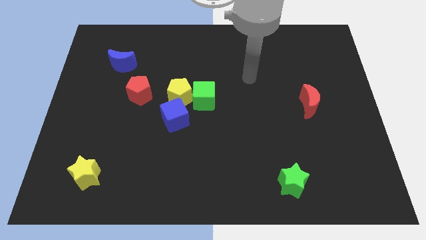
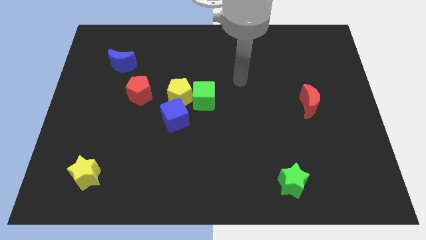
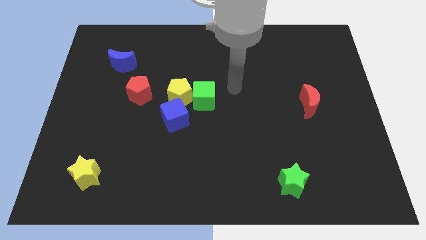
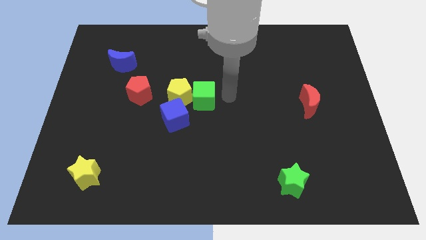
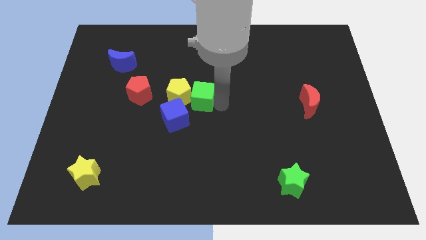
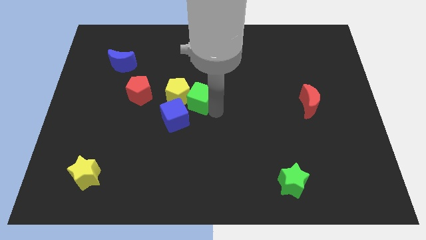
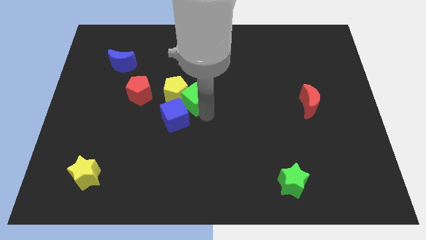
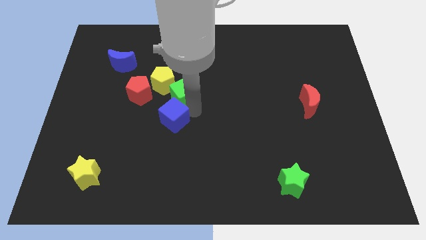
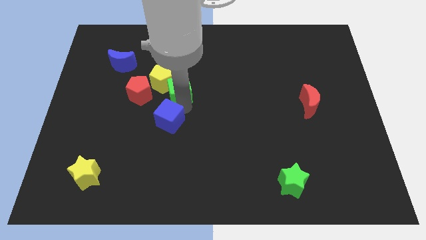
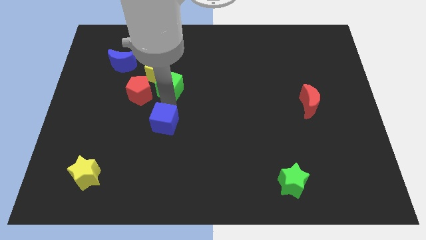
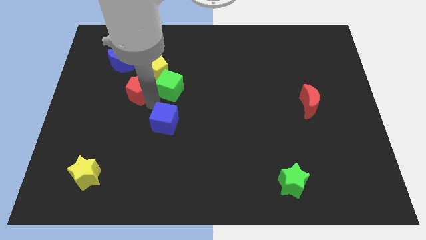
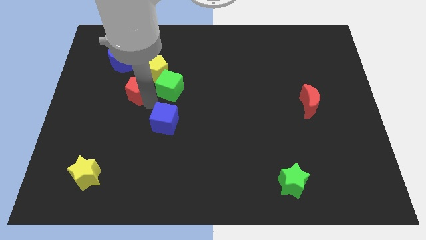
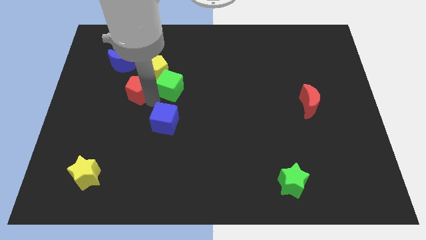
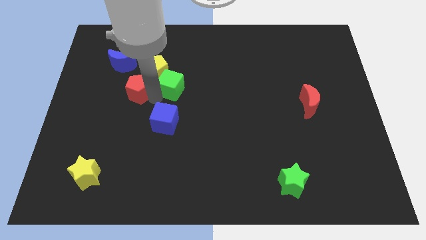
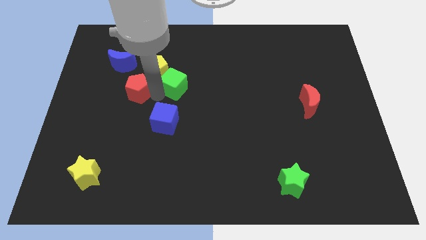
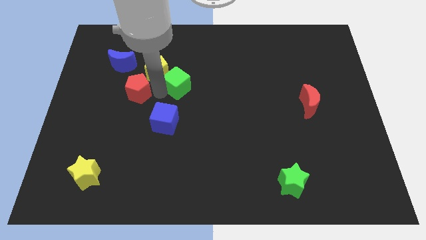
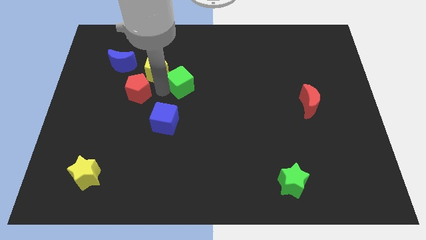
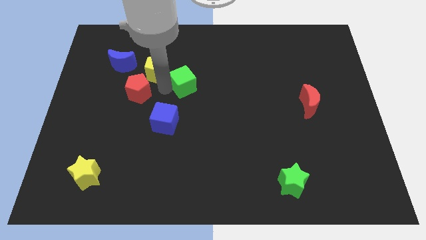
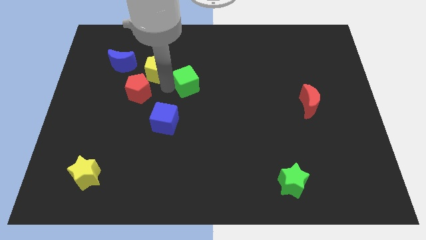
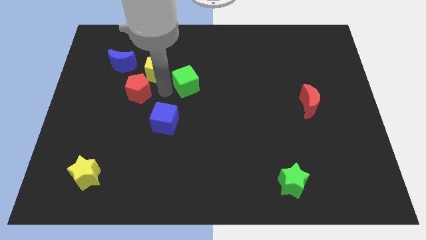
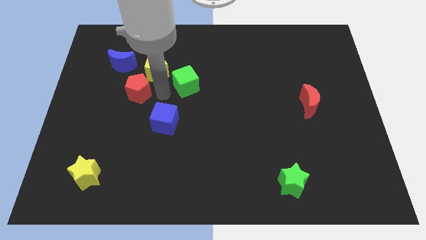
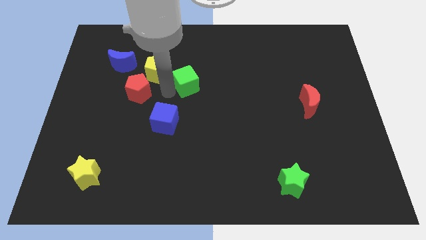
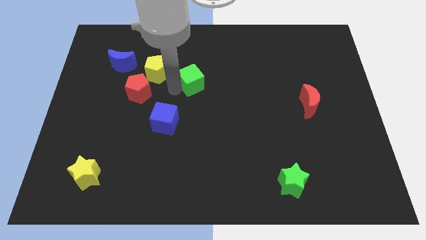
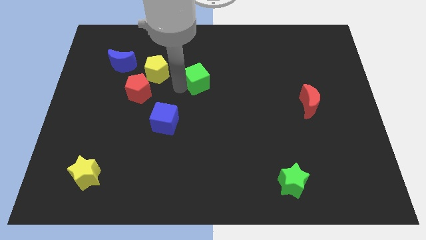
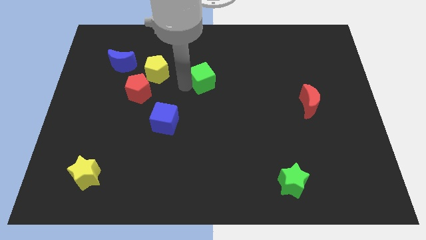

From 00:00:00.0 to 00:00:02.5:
move the green cube away from the yellow pentagon and blue cube

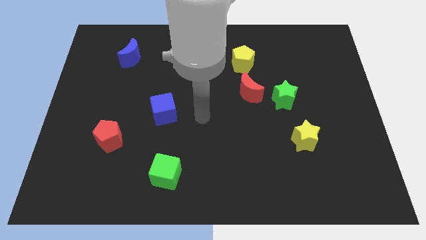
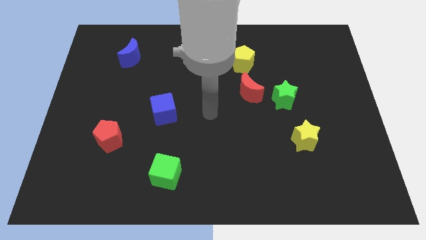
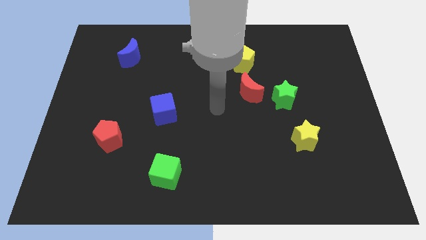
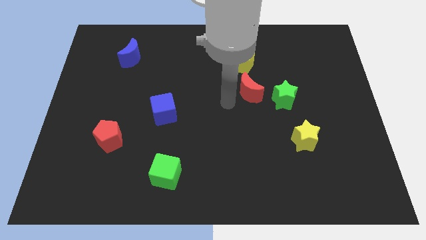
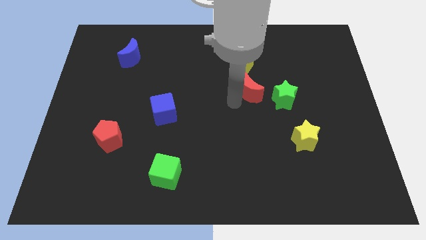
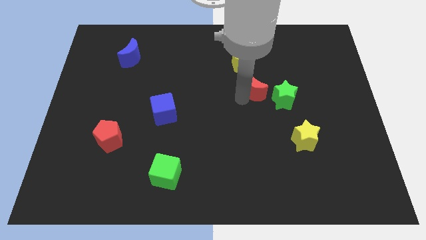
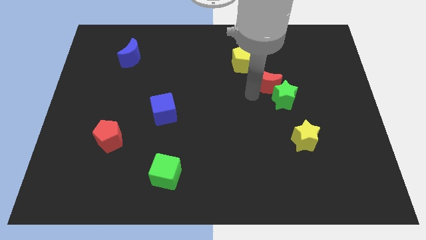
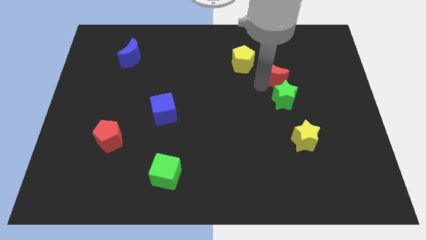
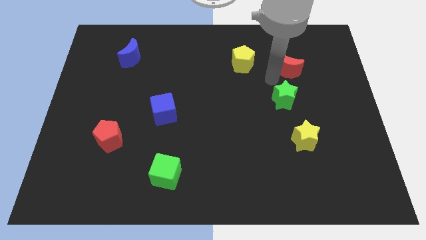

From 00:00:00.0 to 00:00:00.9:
move the green star away from the red moon

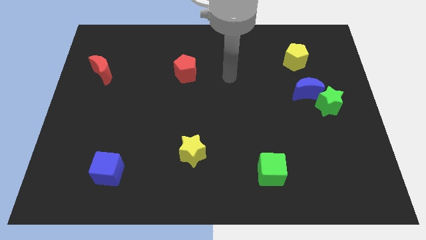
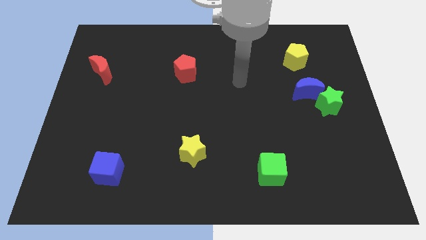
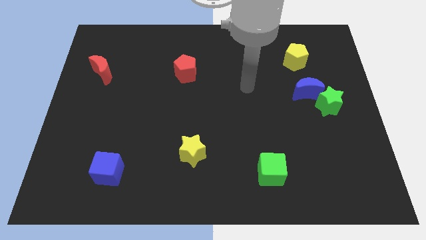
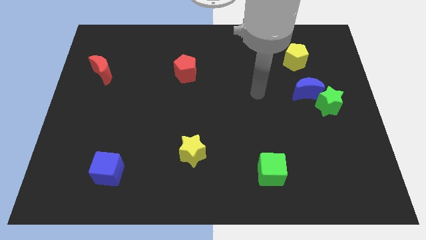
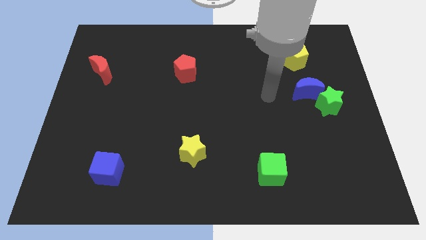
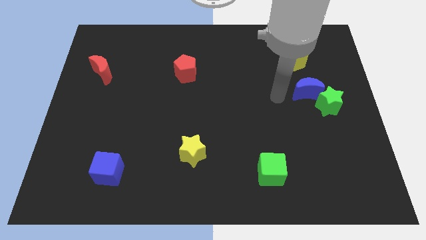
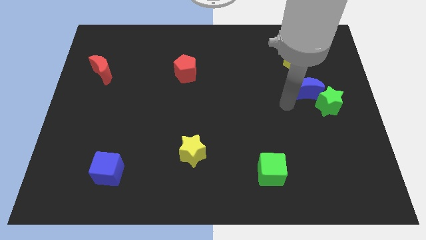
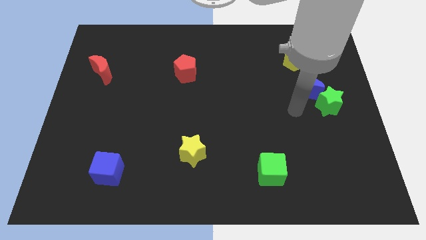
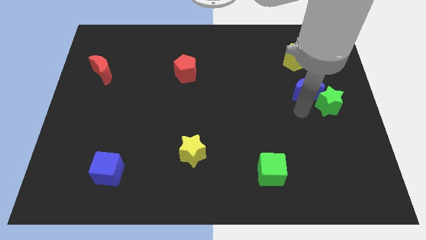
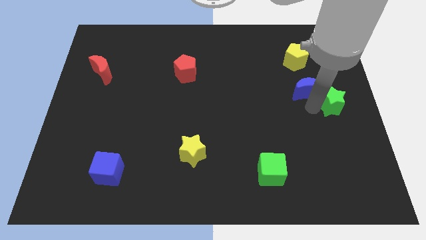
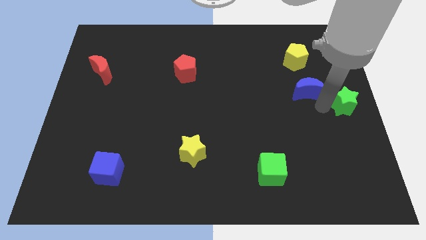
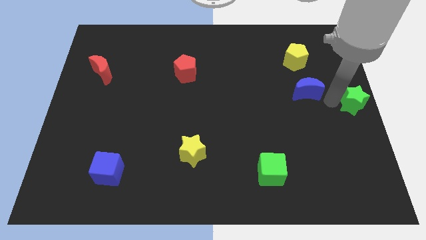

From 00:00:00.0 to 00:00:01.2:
separate the blue moon from the green star

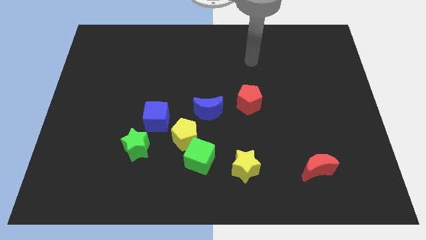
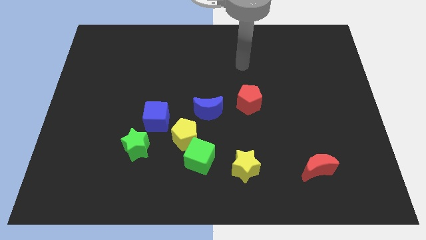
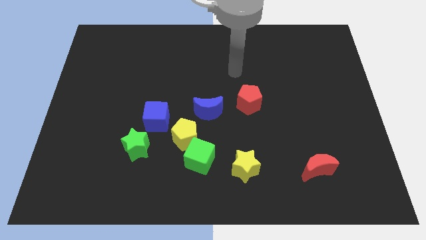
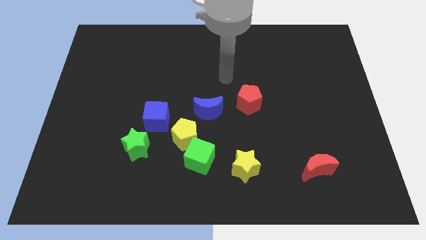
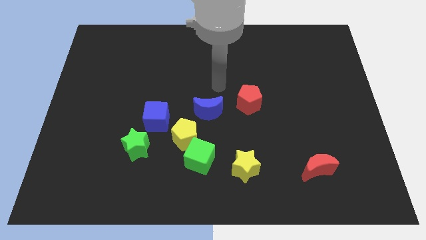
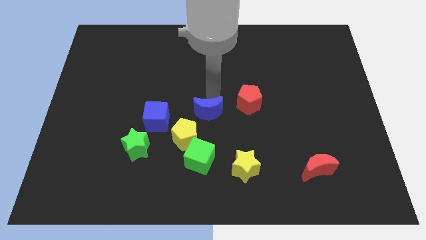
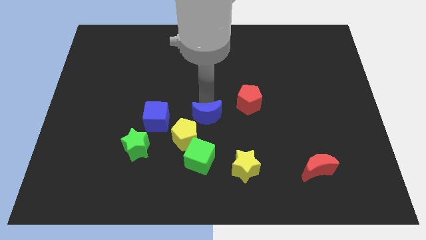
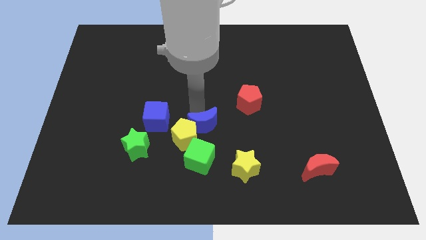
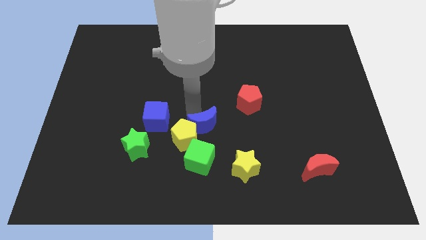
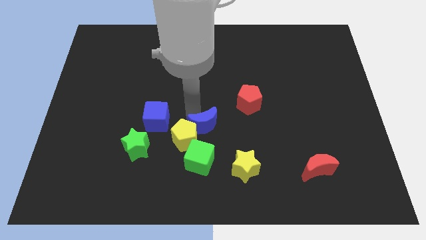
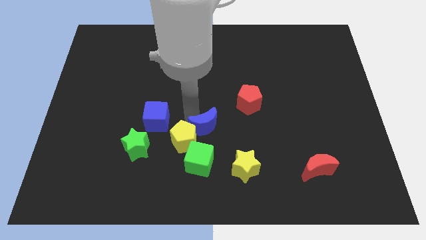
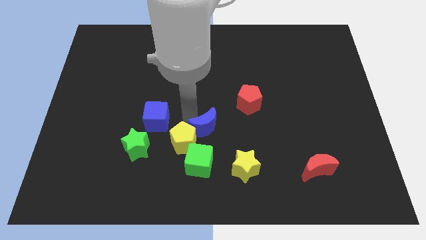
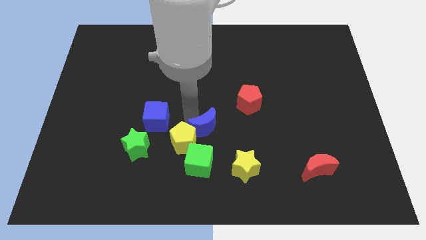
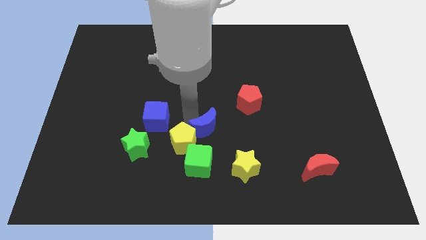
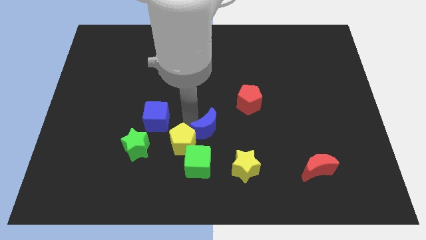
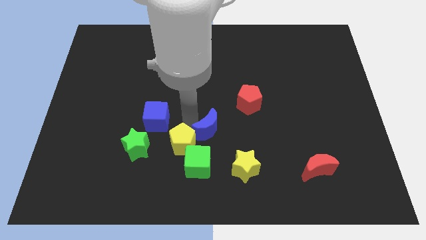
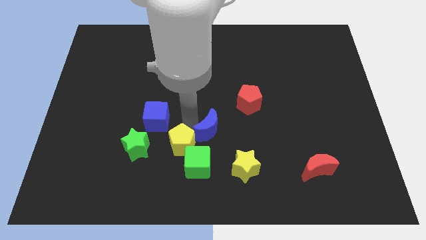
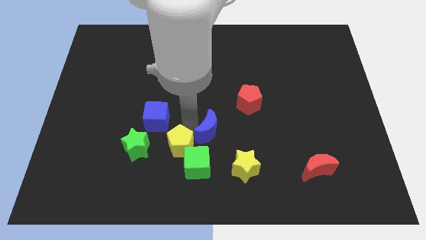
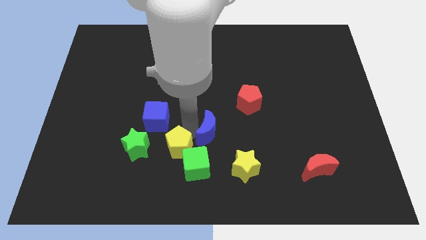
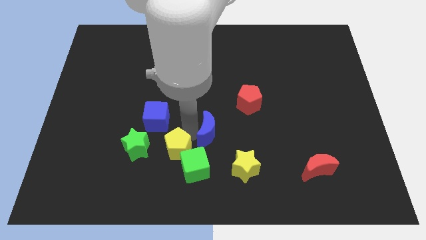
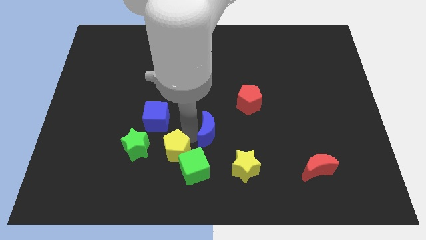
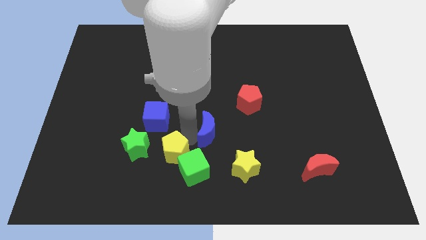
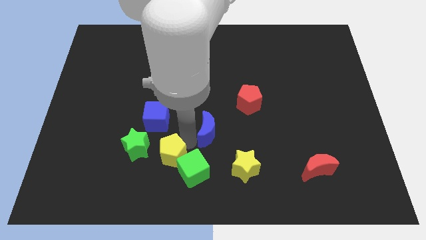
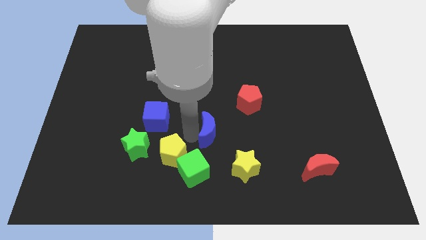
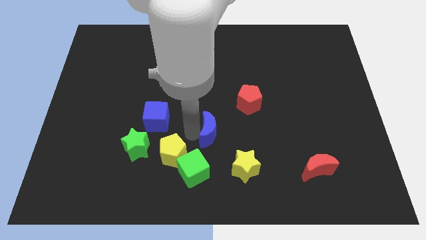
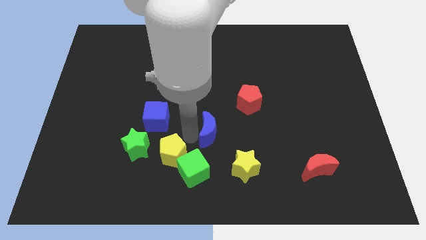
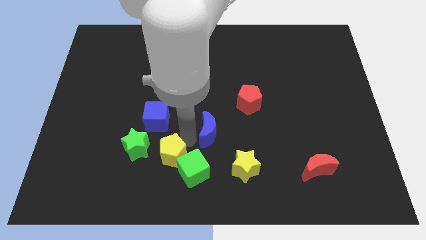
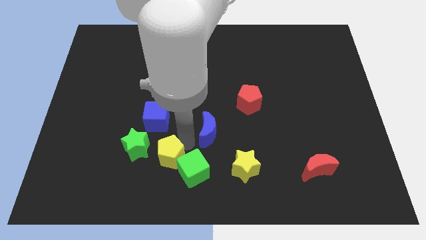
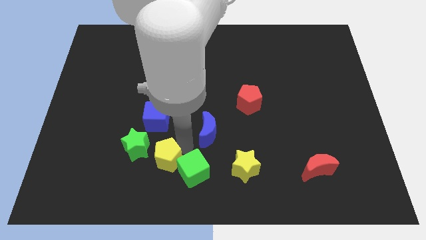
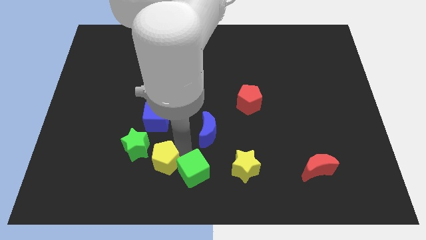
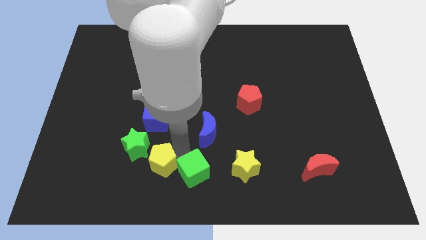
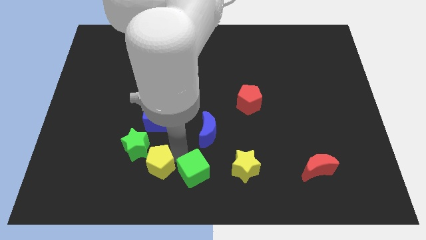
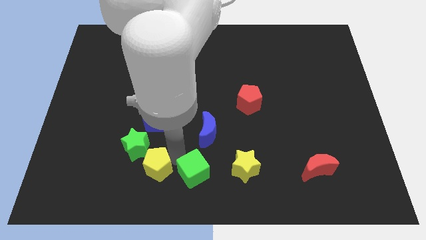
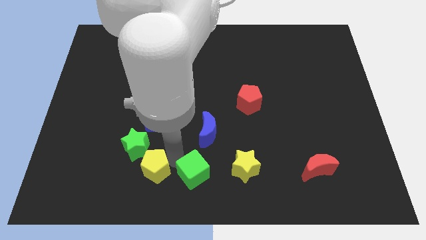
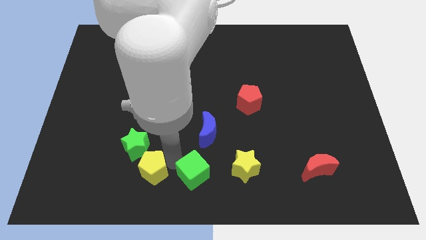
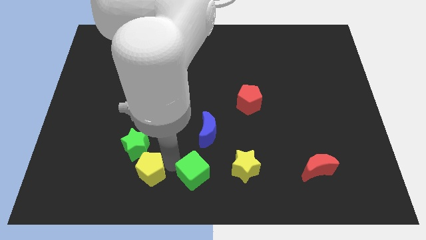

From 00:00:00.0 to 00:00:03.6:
move the yellow pentagon away from the green cube, blue cube, and blue moon

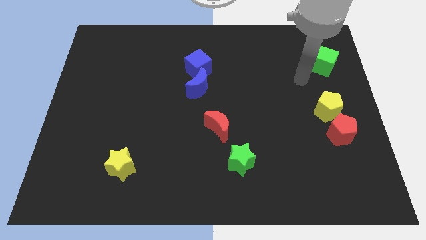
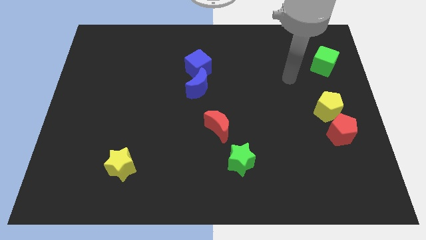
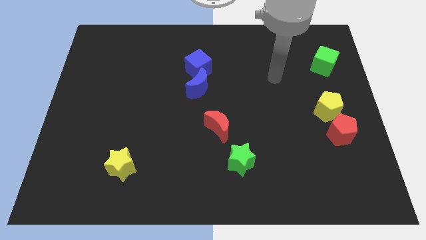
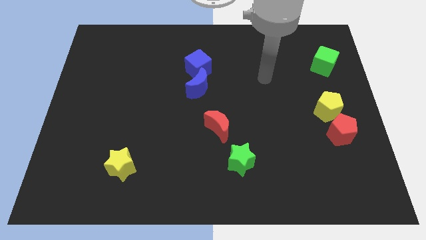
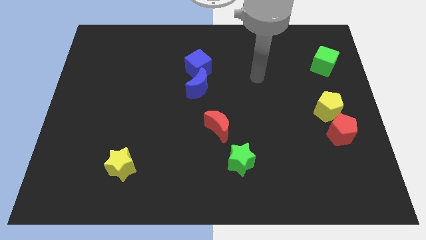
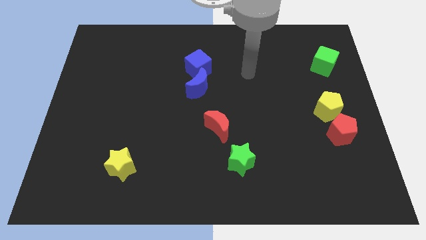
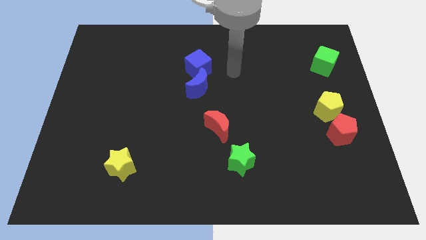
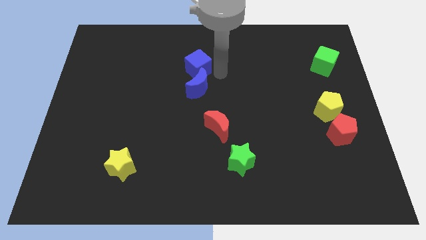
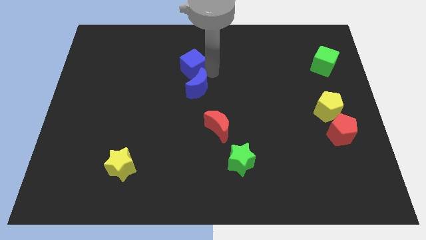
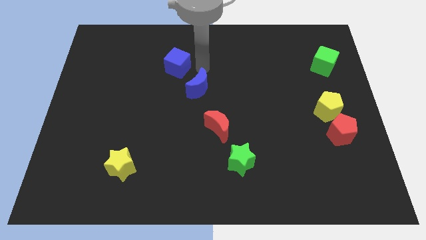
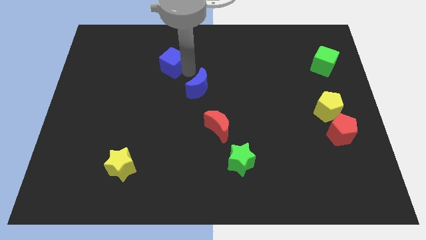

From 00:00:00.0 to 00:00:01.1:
pull the blue moon apart from the blue cube
